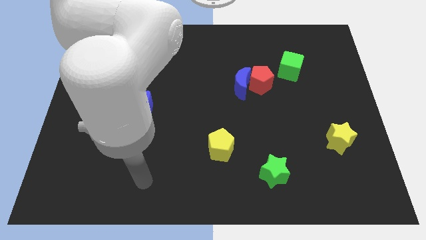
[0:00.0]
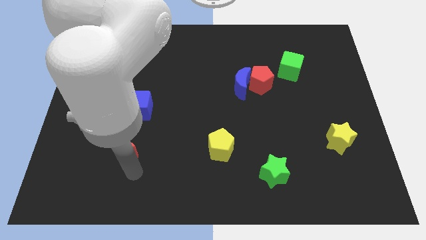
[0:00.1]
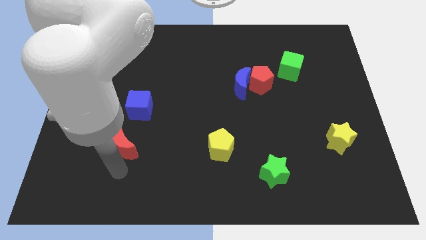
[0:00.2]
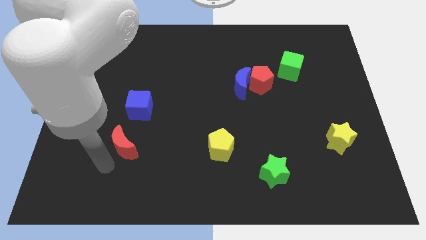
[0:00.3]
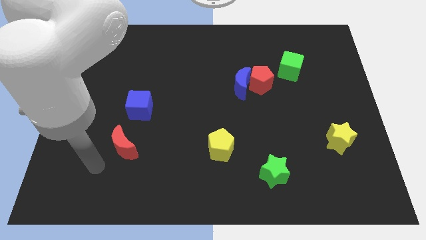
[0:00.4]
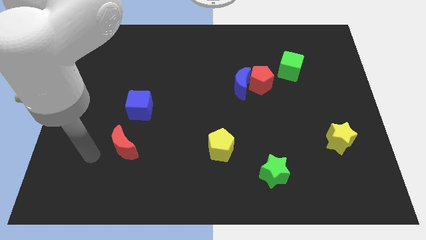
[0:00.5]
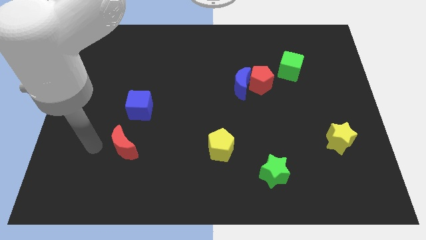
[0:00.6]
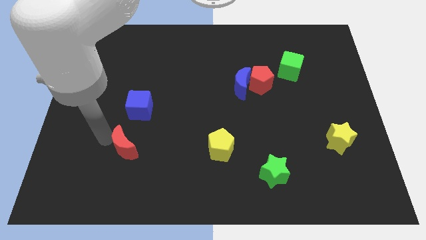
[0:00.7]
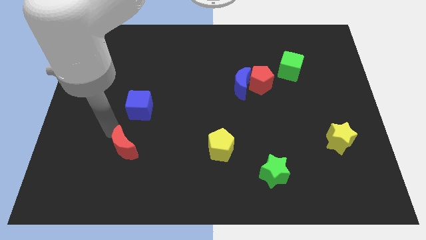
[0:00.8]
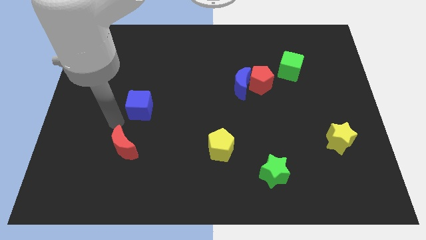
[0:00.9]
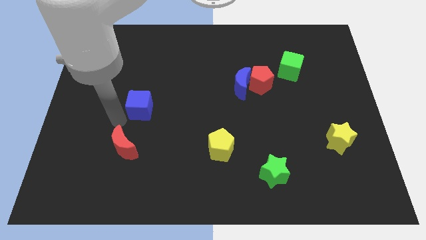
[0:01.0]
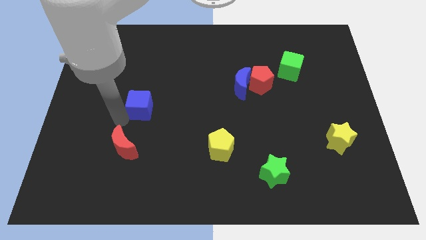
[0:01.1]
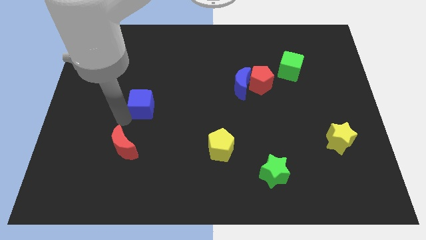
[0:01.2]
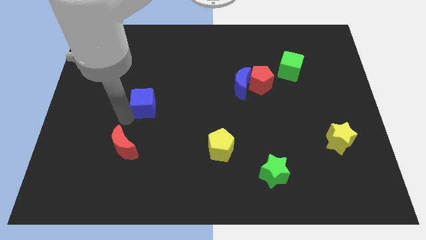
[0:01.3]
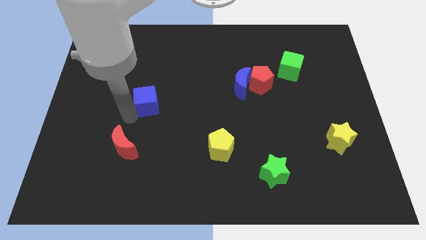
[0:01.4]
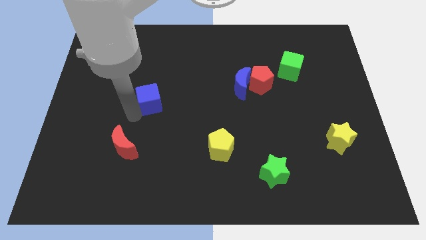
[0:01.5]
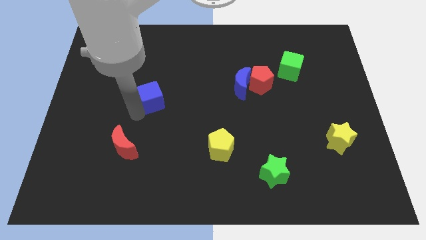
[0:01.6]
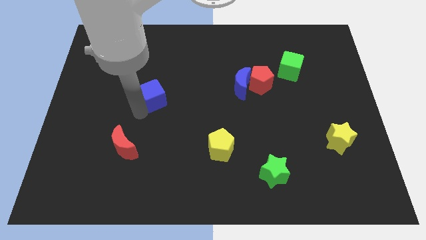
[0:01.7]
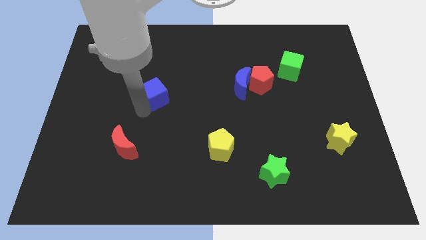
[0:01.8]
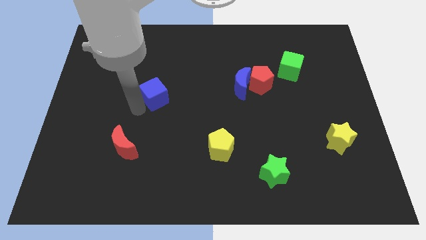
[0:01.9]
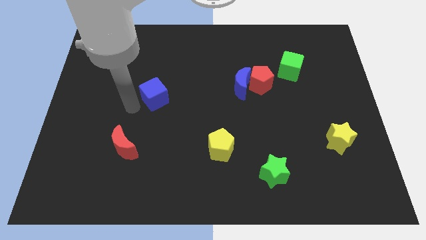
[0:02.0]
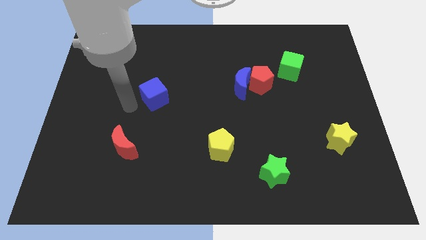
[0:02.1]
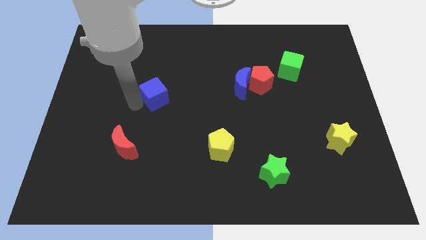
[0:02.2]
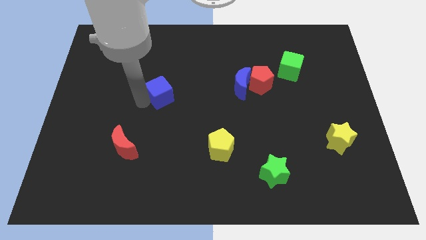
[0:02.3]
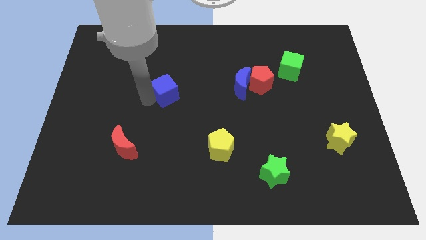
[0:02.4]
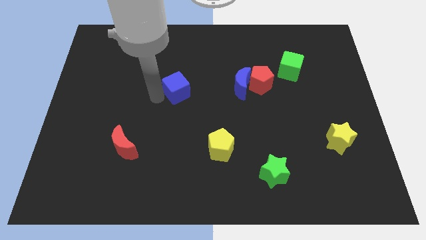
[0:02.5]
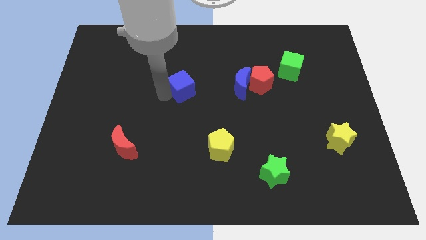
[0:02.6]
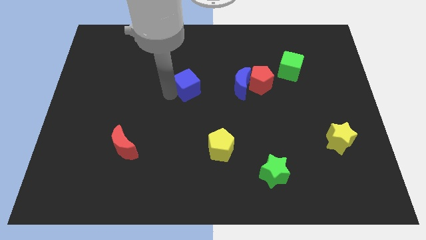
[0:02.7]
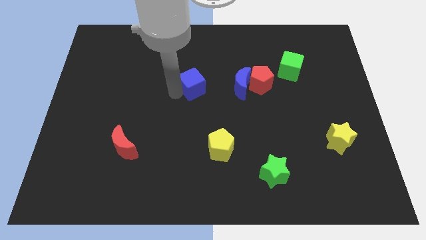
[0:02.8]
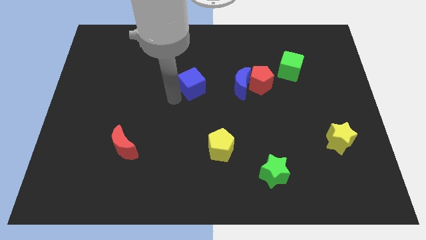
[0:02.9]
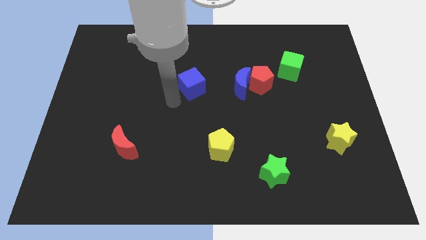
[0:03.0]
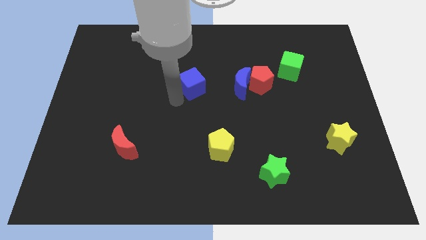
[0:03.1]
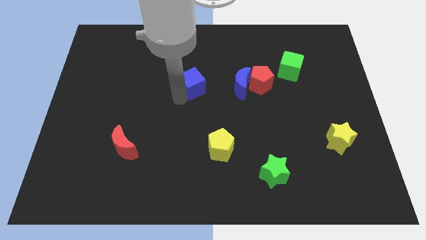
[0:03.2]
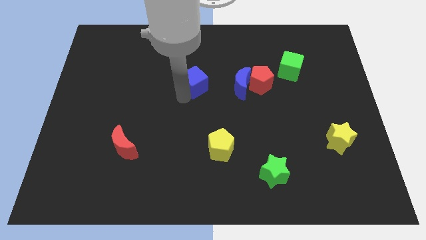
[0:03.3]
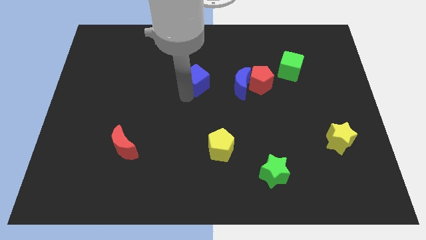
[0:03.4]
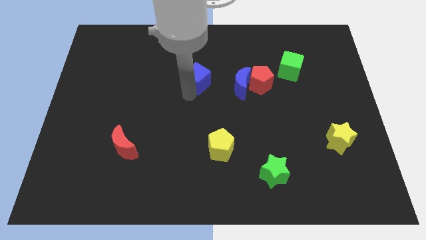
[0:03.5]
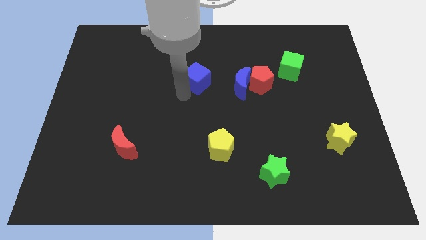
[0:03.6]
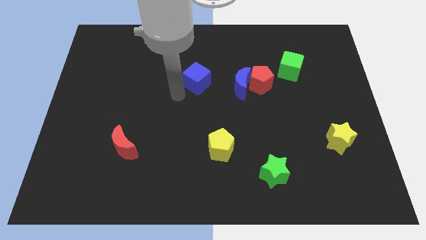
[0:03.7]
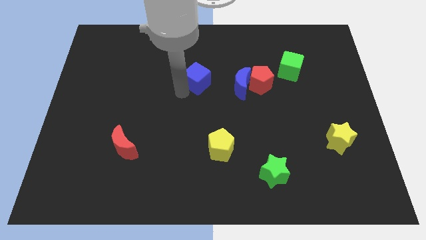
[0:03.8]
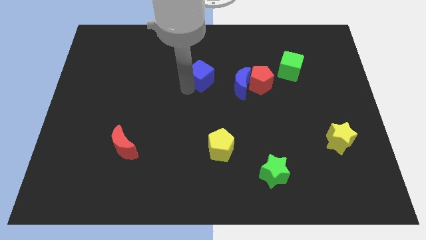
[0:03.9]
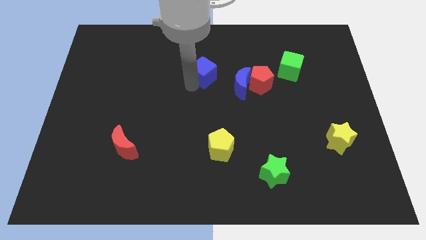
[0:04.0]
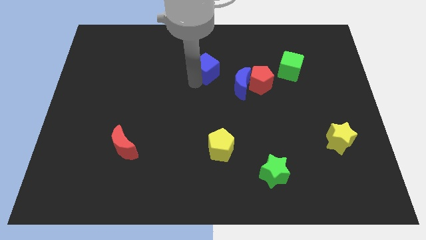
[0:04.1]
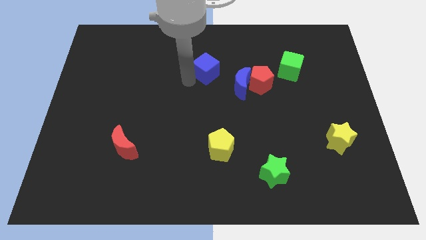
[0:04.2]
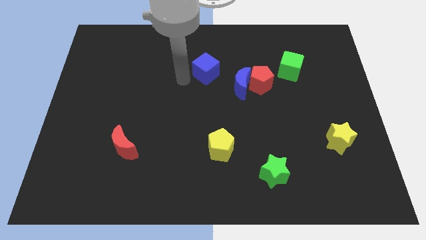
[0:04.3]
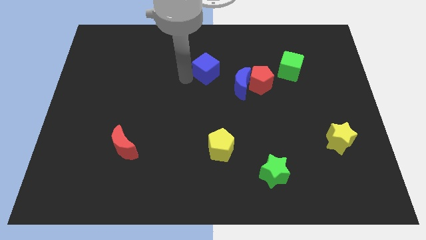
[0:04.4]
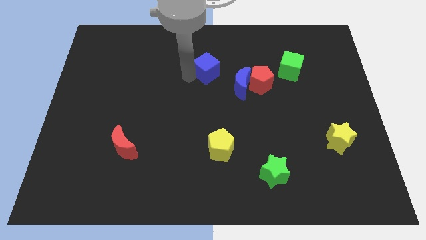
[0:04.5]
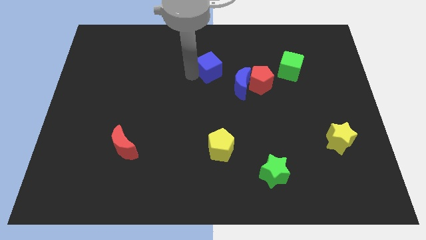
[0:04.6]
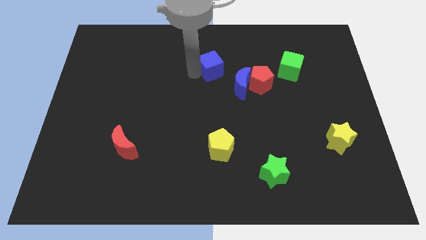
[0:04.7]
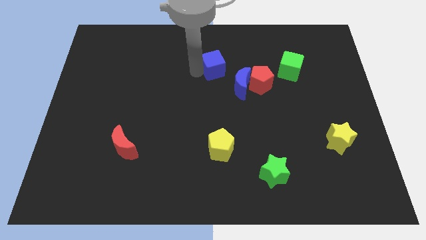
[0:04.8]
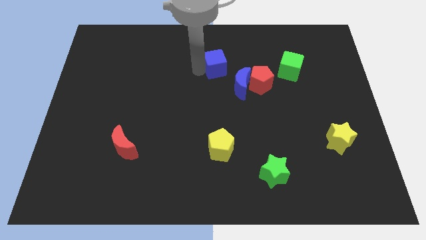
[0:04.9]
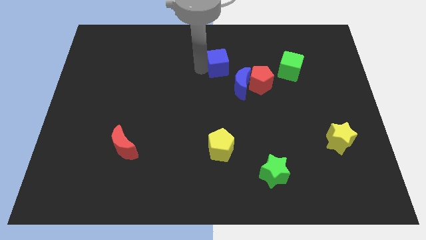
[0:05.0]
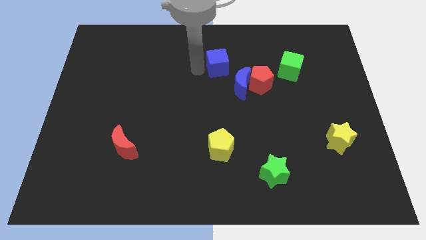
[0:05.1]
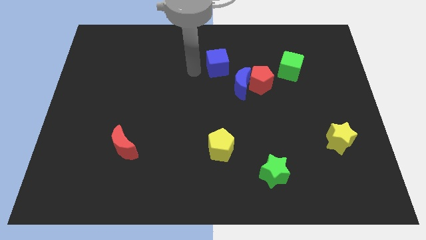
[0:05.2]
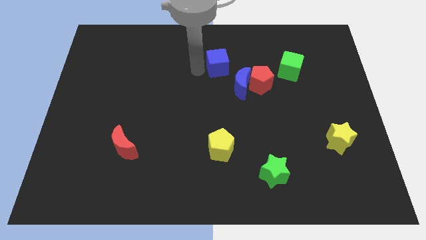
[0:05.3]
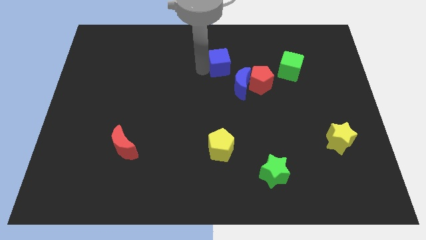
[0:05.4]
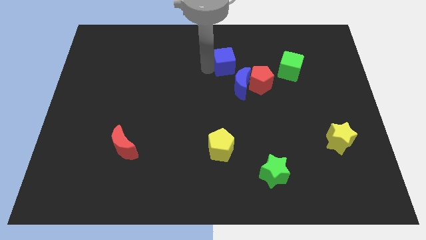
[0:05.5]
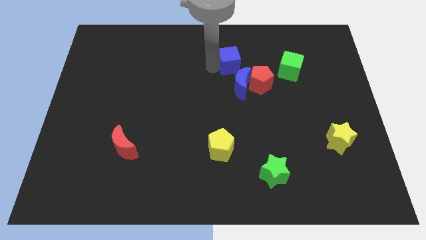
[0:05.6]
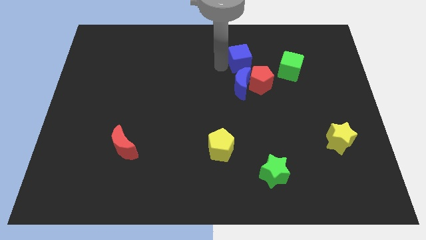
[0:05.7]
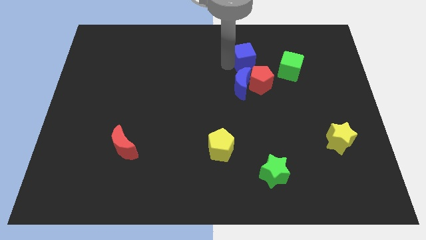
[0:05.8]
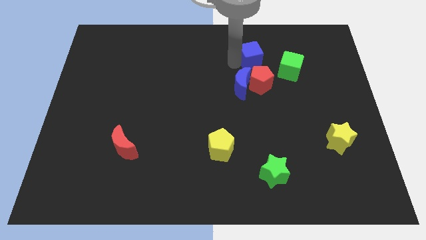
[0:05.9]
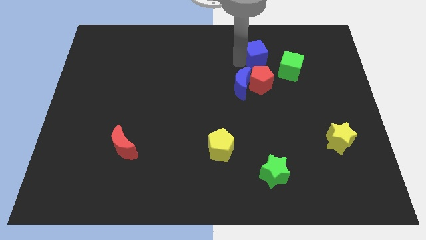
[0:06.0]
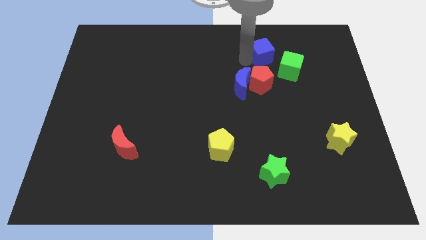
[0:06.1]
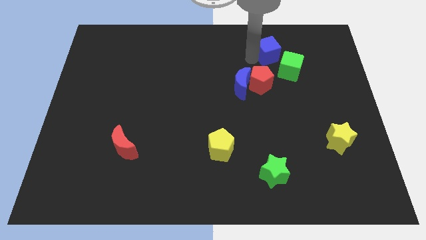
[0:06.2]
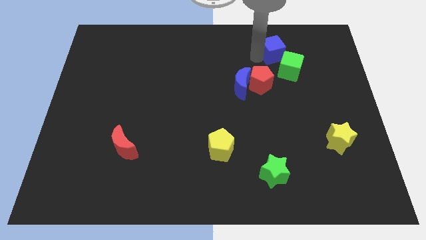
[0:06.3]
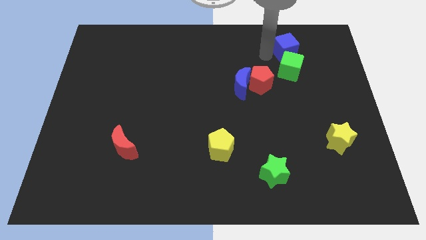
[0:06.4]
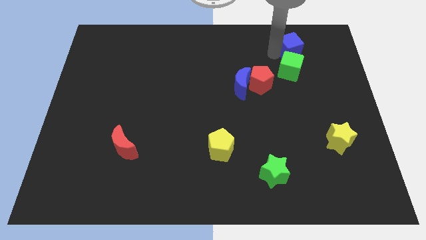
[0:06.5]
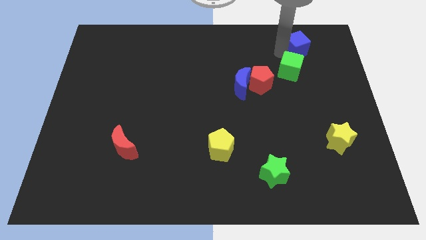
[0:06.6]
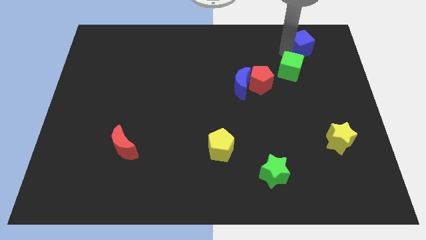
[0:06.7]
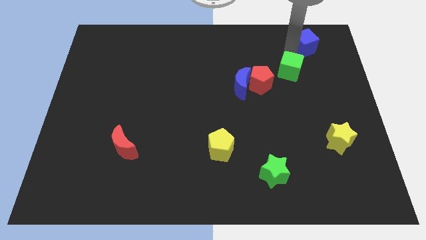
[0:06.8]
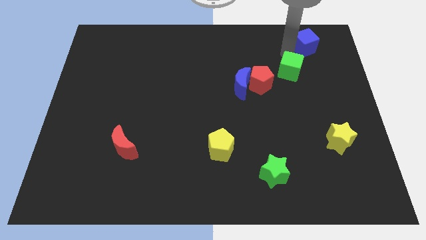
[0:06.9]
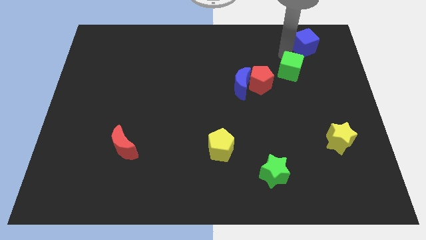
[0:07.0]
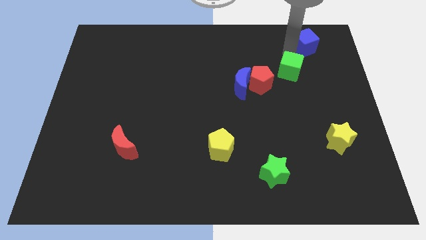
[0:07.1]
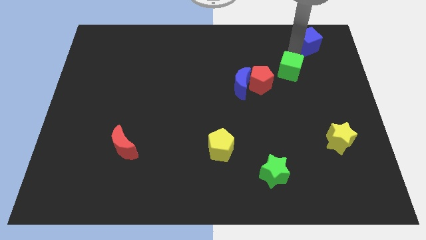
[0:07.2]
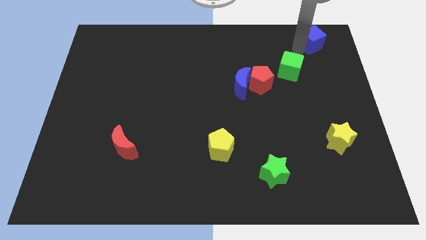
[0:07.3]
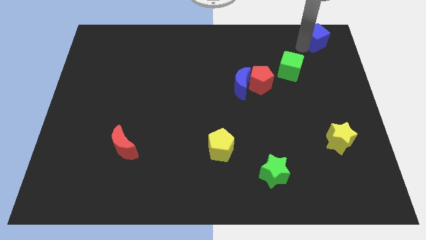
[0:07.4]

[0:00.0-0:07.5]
push the blue cube to the top right
